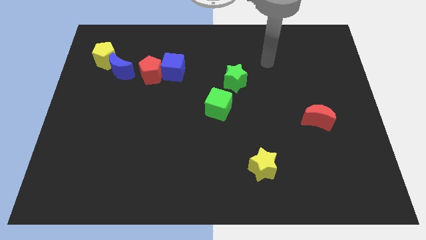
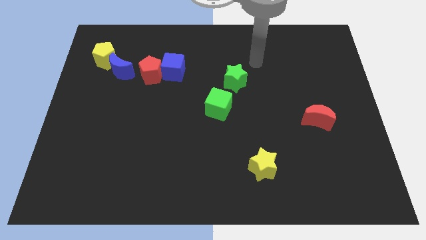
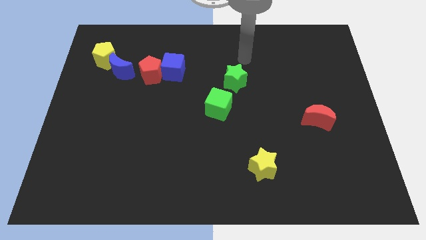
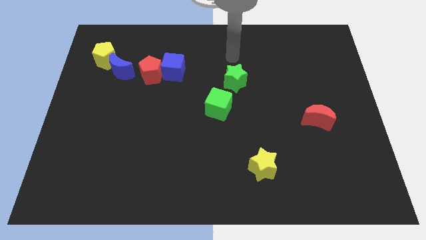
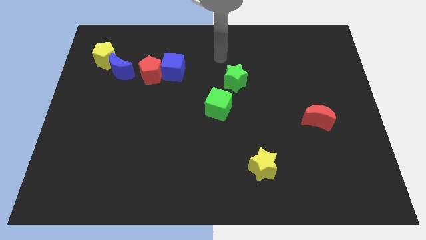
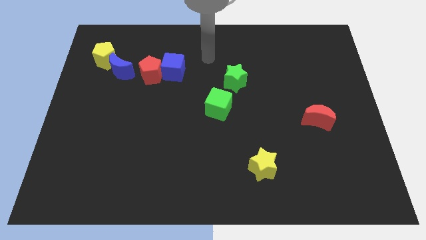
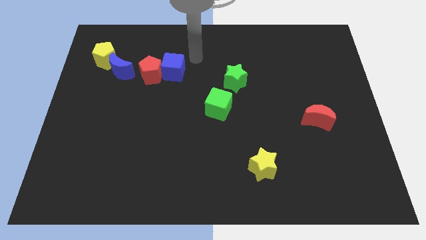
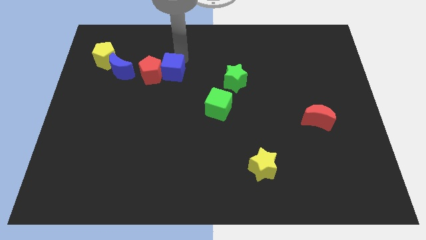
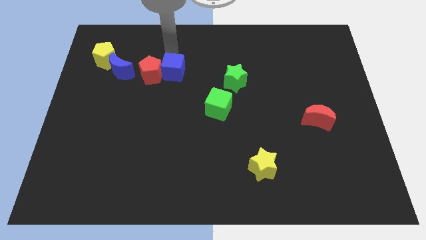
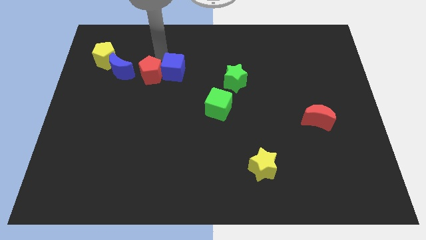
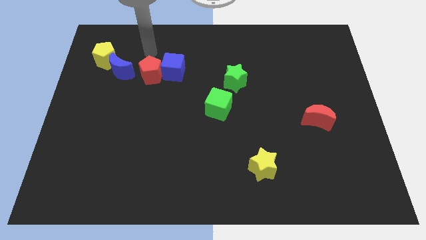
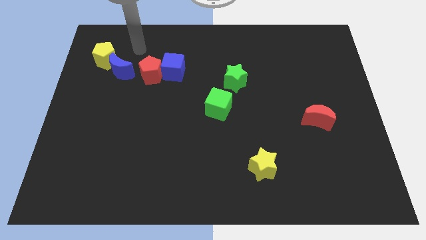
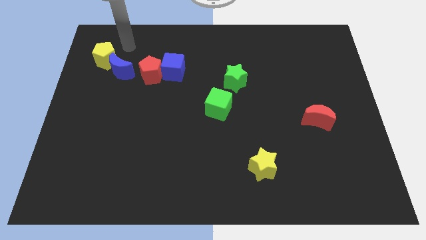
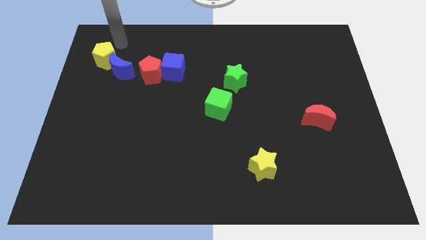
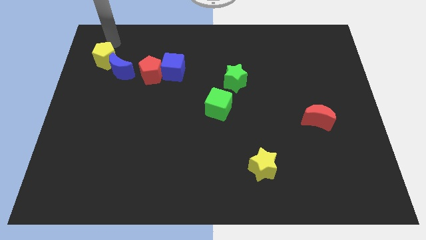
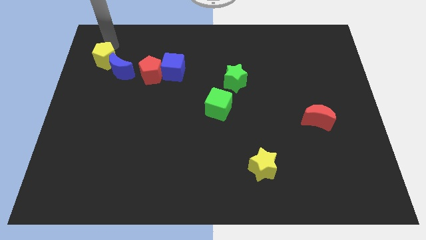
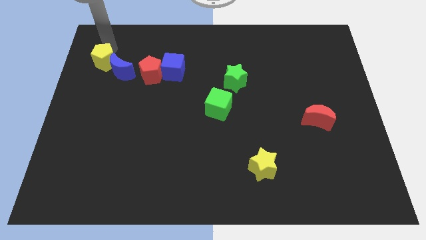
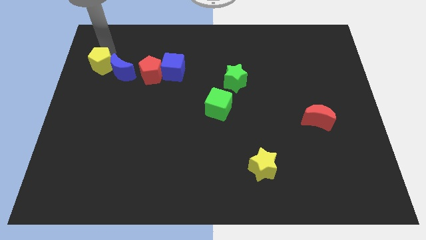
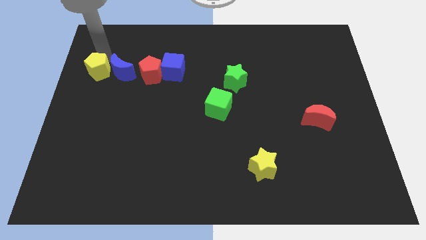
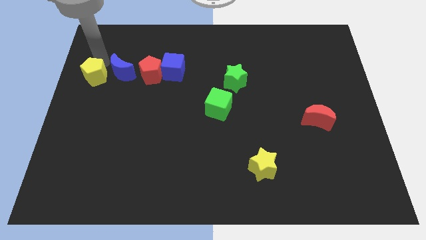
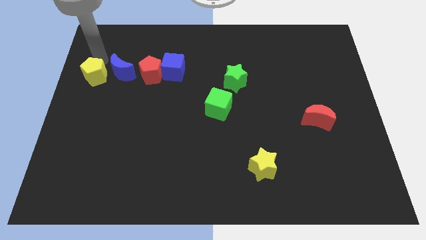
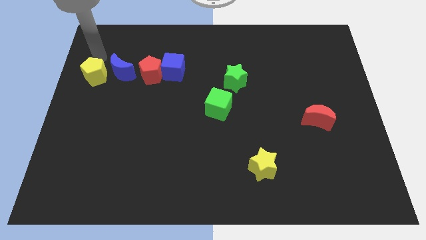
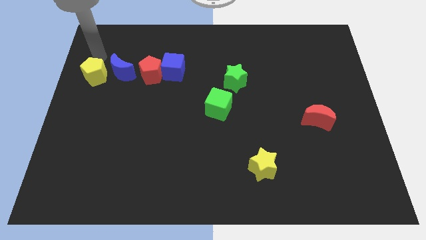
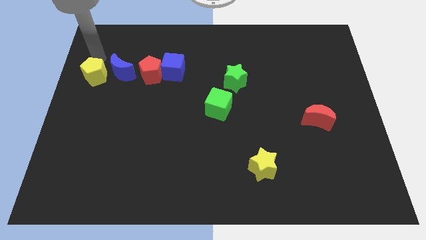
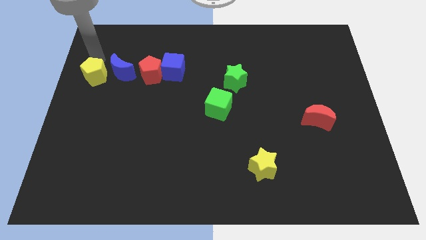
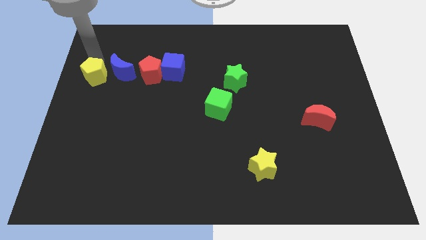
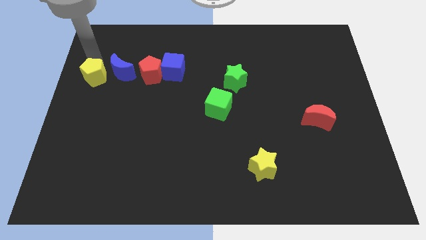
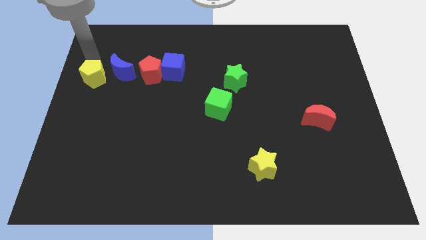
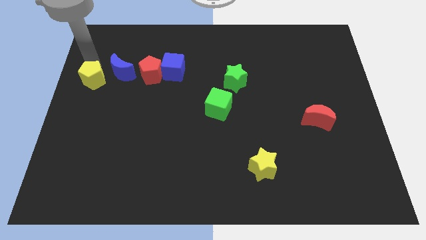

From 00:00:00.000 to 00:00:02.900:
move the yellow pentagon down a little bit

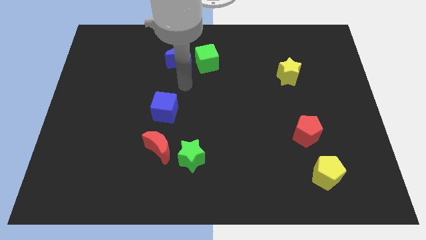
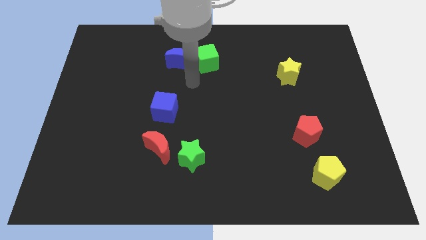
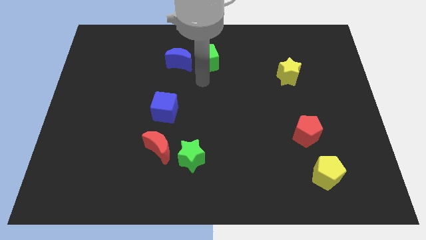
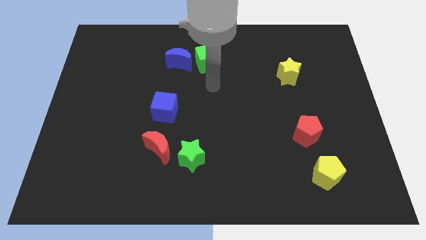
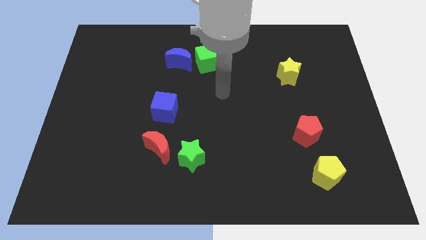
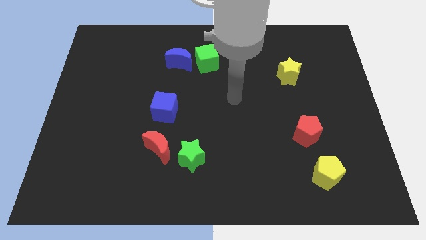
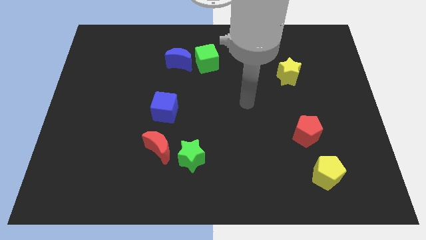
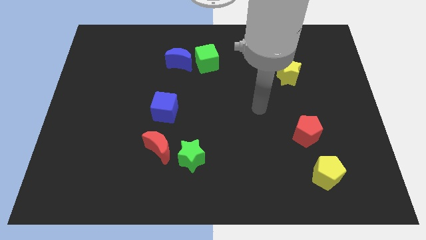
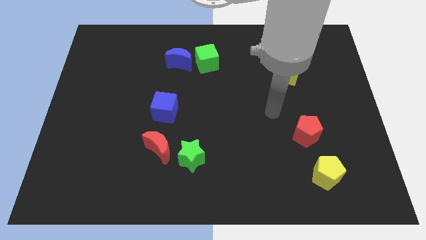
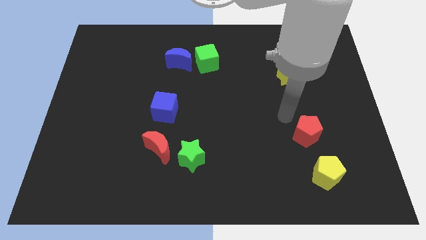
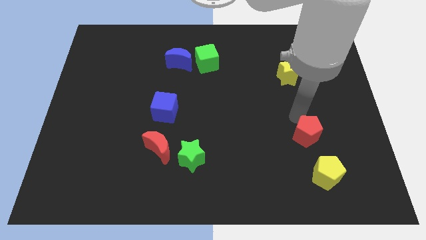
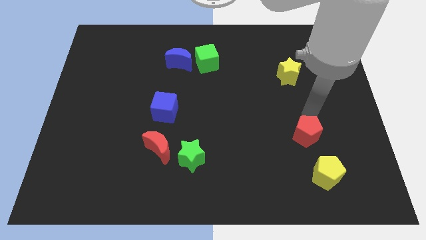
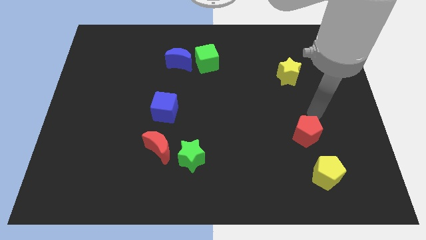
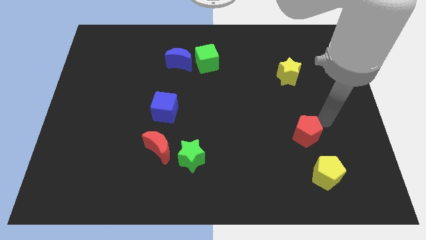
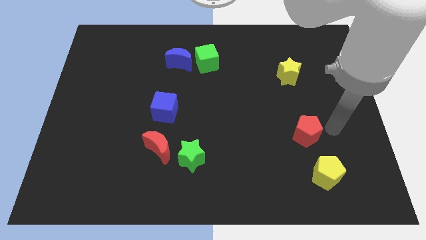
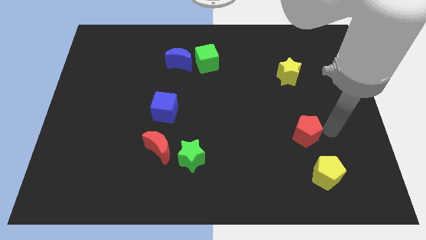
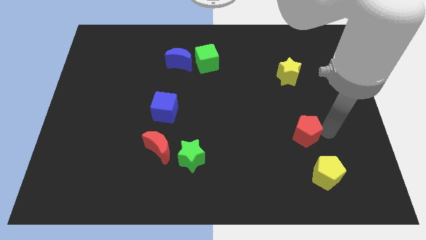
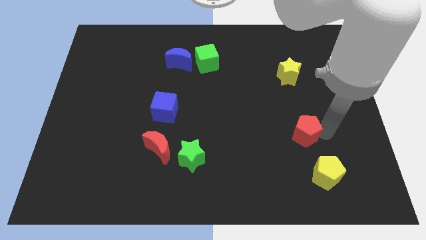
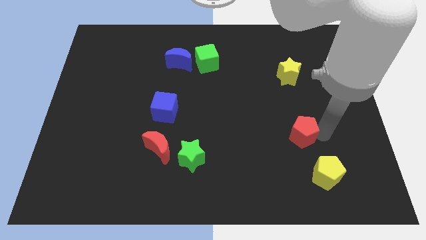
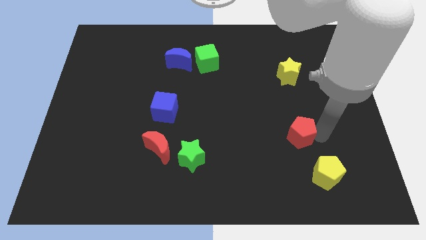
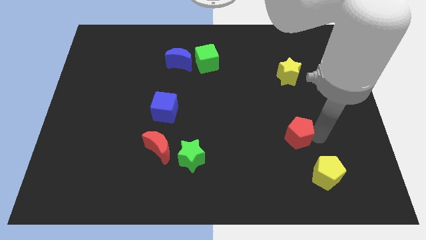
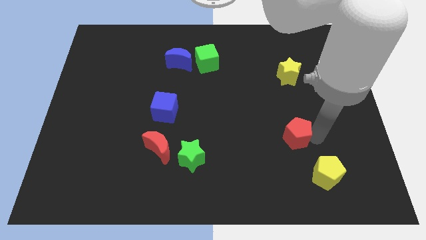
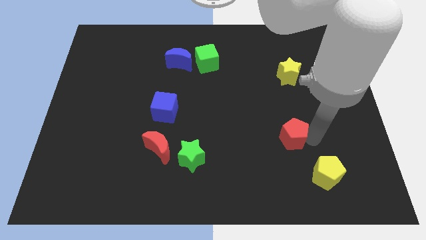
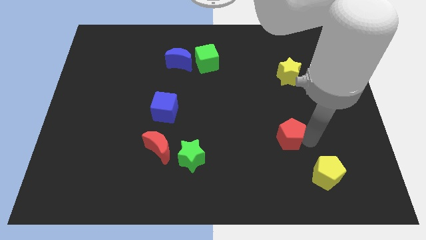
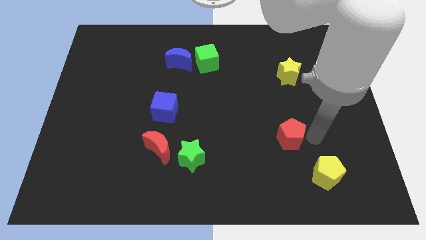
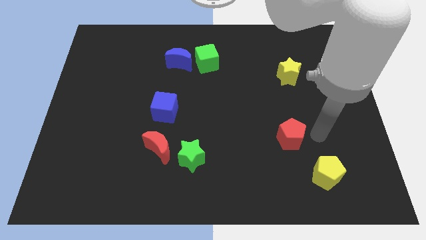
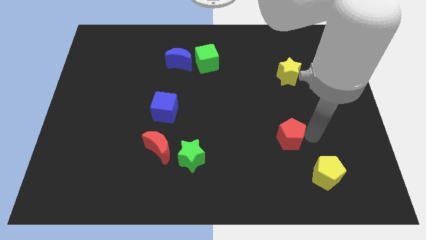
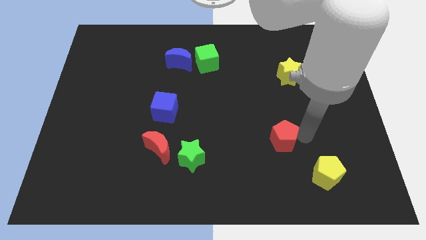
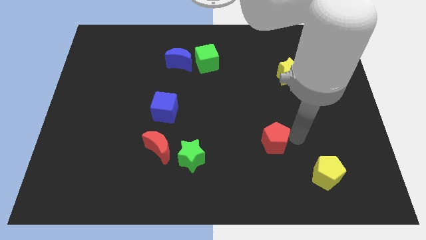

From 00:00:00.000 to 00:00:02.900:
push the red pentagon slightly left

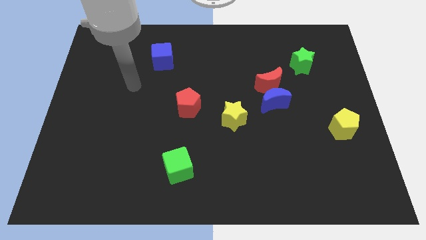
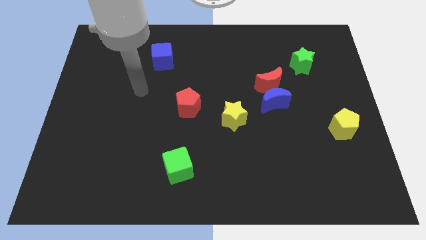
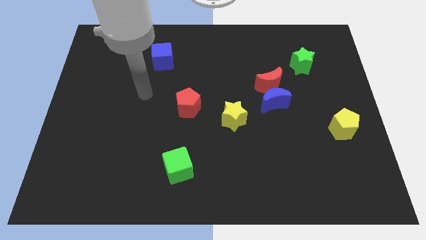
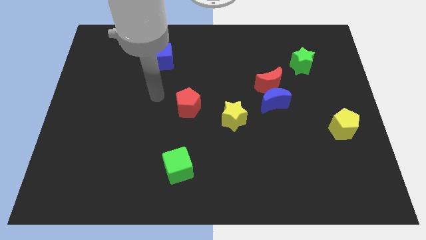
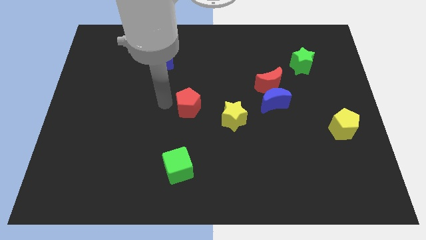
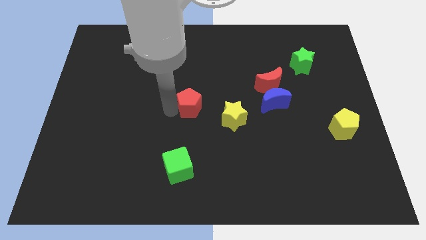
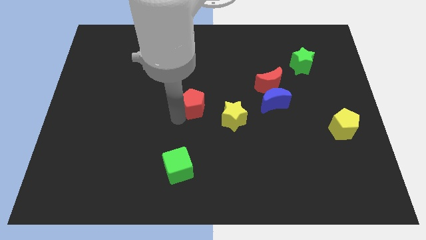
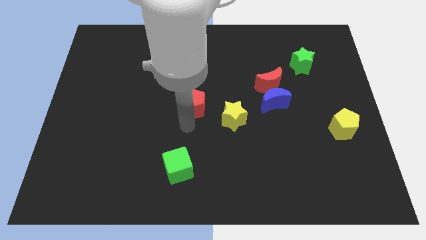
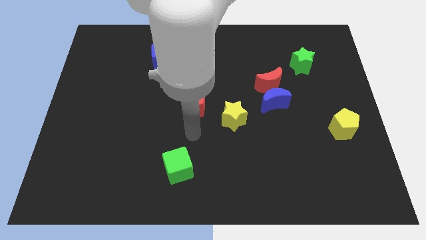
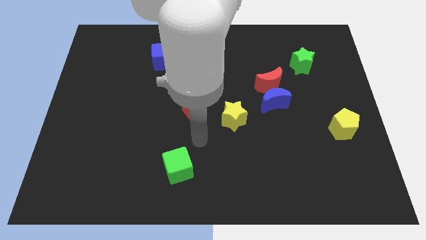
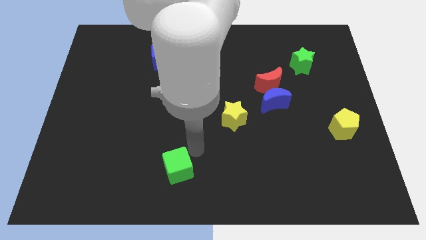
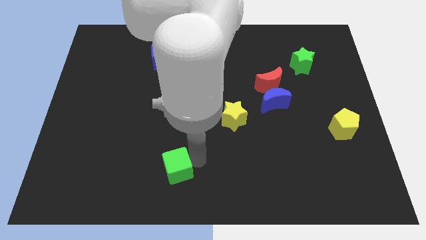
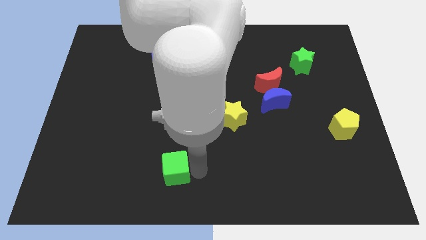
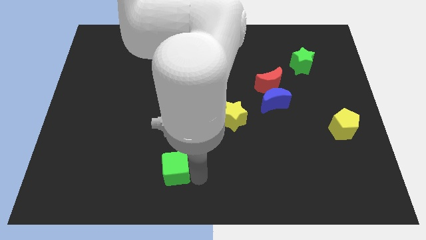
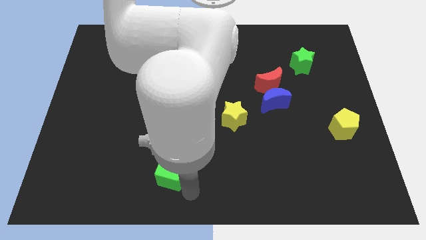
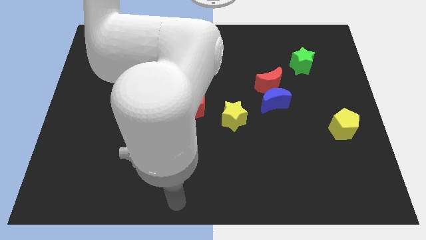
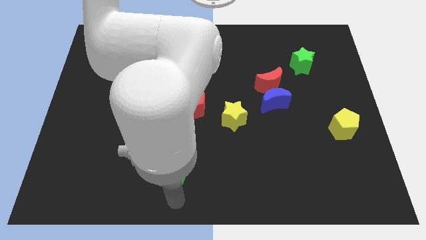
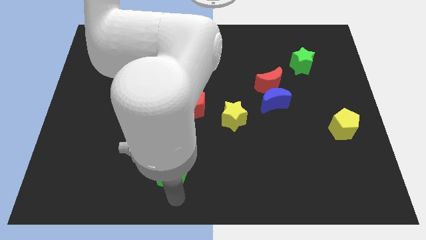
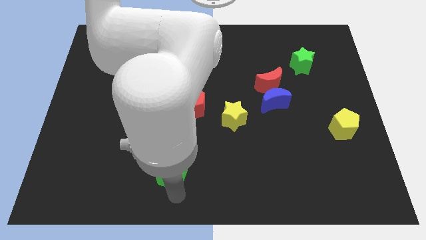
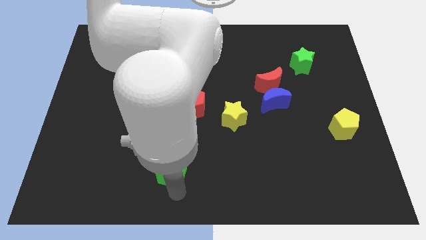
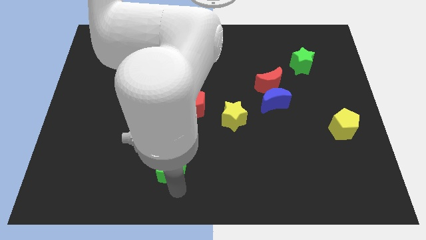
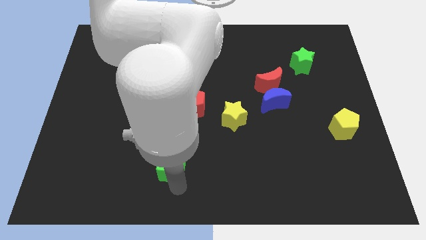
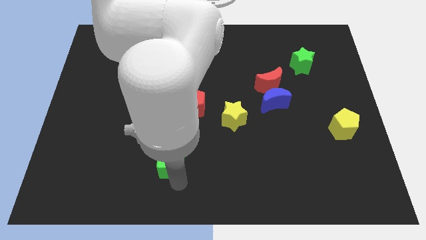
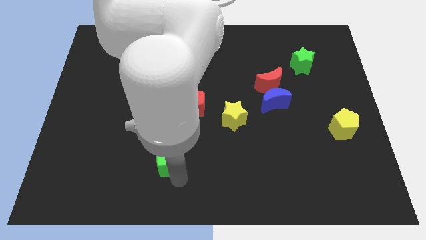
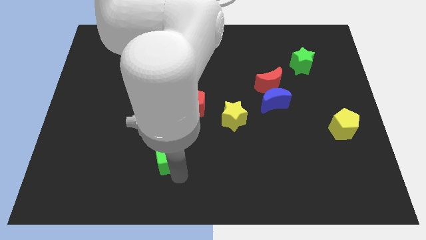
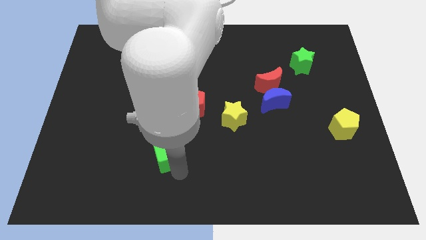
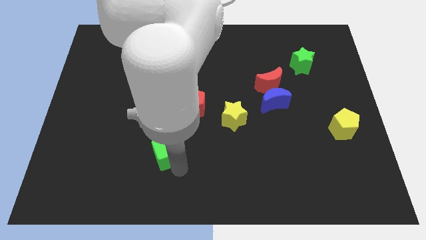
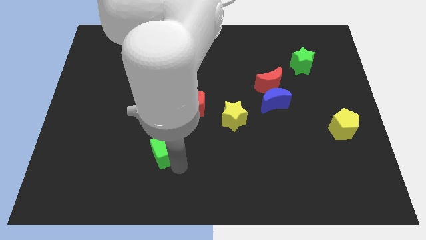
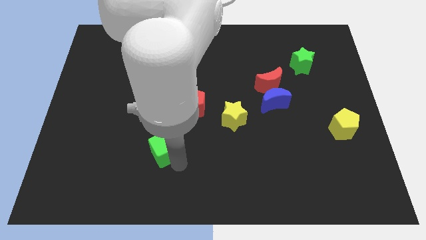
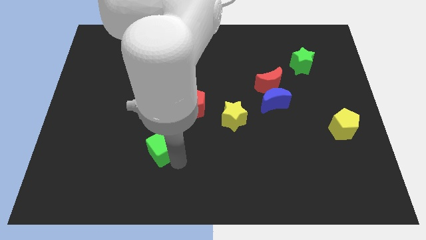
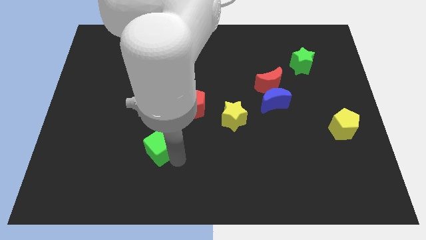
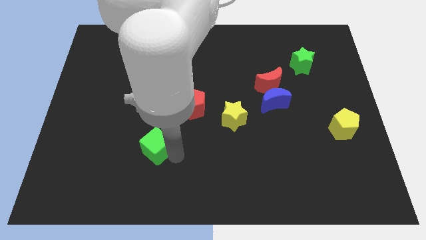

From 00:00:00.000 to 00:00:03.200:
slide the green cube slightly up and to the left diagonally
